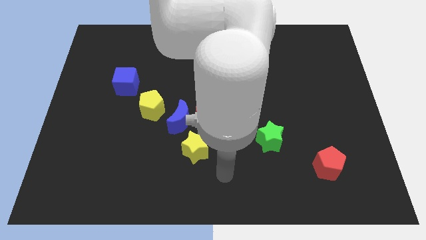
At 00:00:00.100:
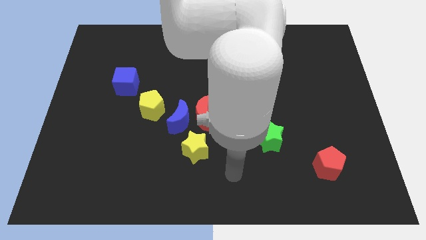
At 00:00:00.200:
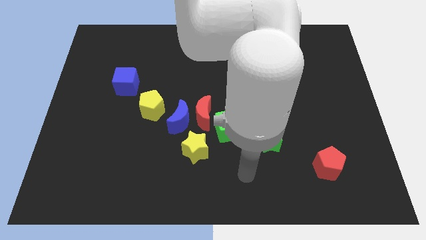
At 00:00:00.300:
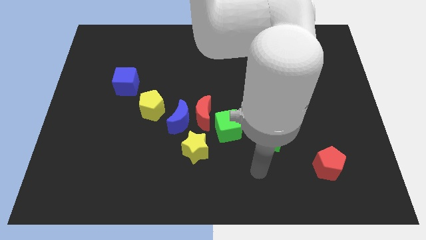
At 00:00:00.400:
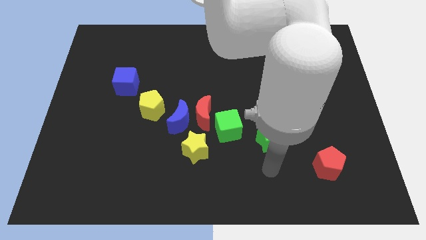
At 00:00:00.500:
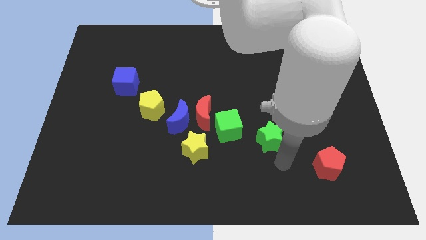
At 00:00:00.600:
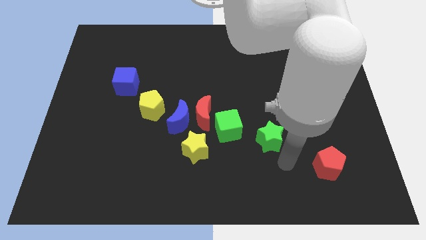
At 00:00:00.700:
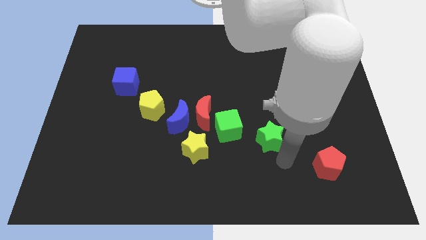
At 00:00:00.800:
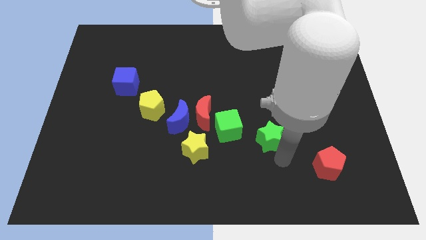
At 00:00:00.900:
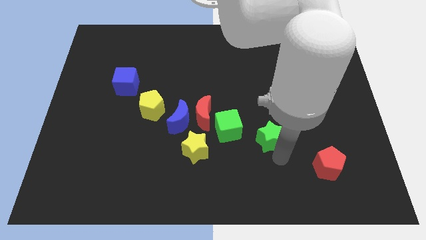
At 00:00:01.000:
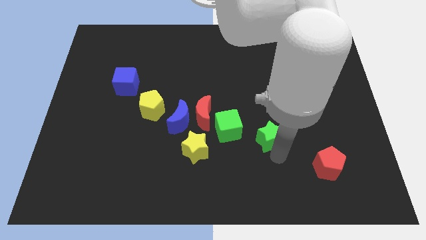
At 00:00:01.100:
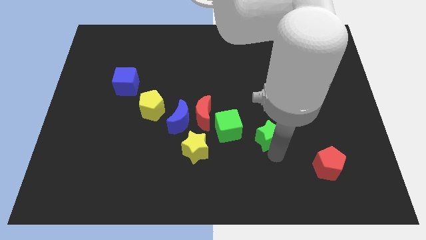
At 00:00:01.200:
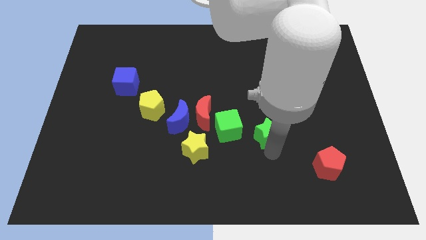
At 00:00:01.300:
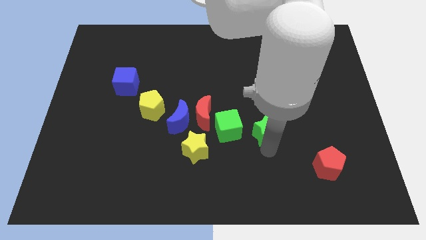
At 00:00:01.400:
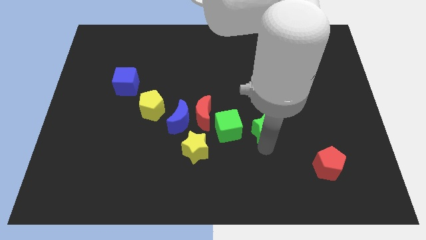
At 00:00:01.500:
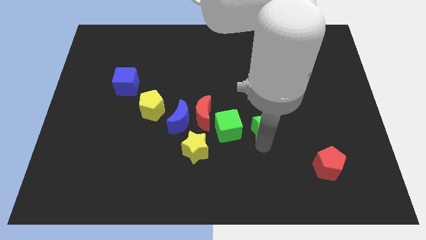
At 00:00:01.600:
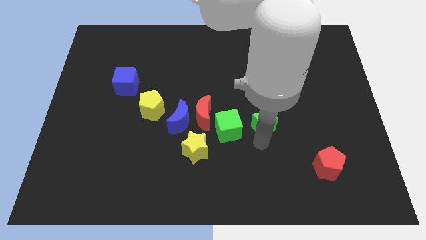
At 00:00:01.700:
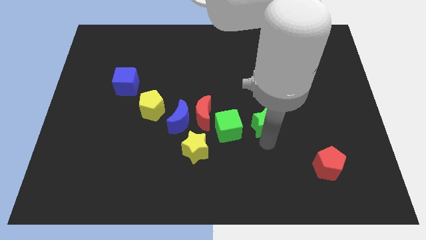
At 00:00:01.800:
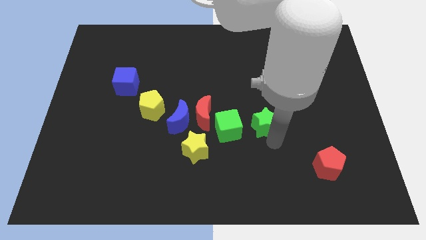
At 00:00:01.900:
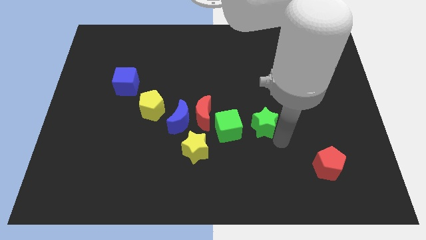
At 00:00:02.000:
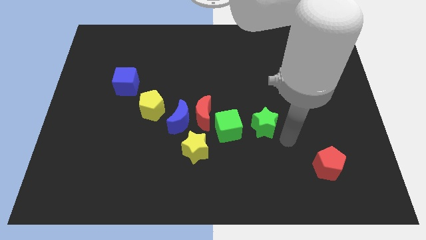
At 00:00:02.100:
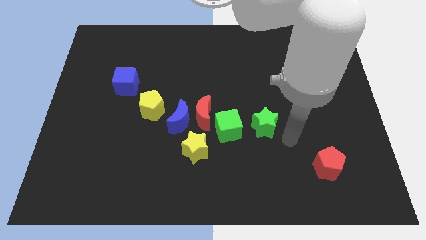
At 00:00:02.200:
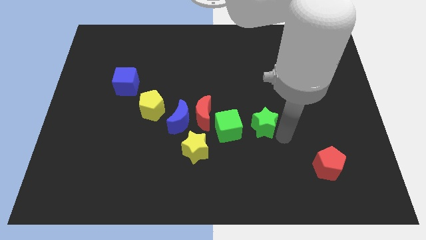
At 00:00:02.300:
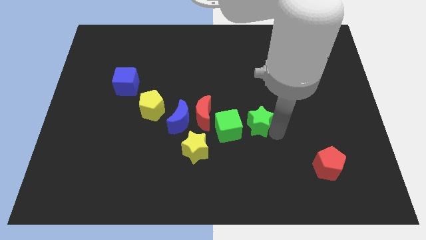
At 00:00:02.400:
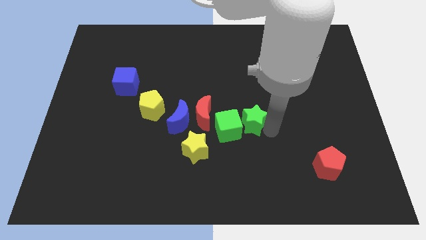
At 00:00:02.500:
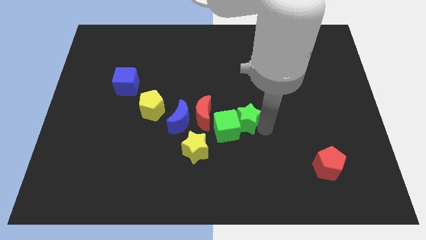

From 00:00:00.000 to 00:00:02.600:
slightly push the green star up and then left

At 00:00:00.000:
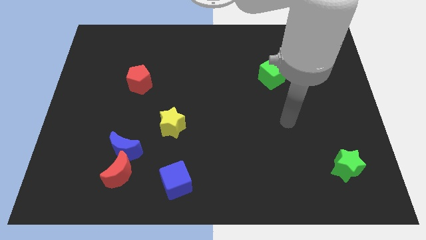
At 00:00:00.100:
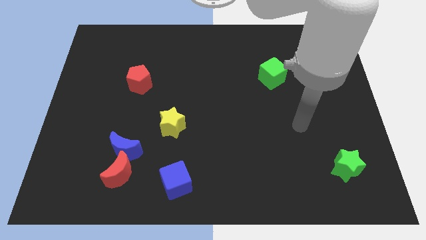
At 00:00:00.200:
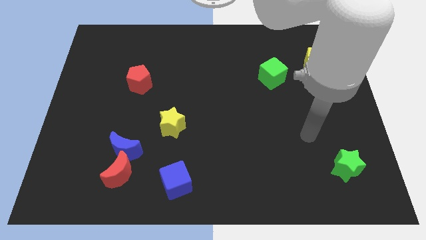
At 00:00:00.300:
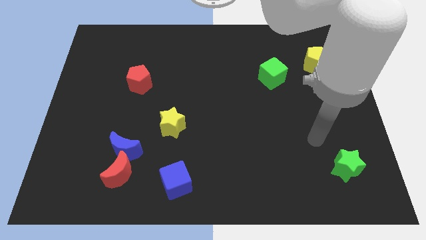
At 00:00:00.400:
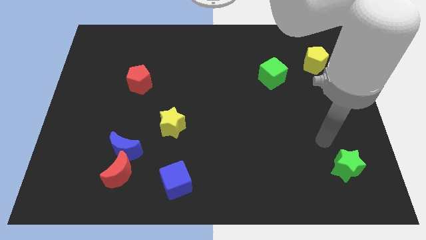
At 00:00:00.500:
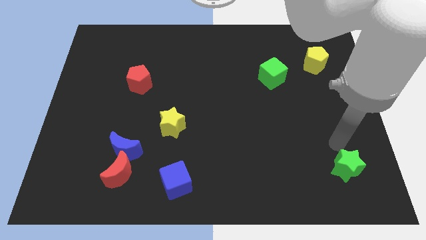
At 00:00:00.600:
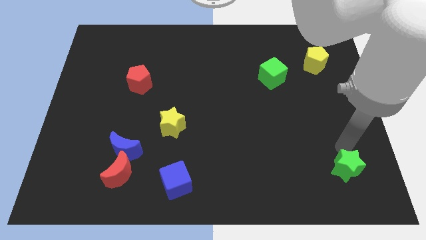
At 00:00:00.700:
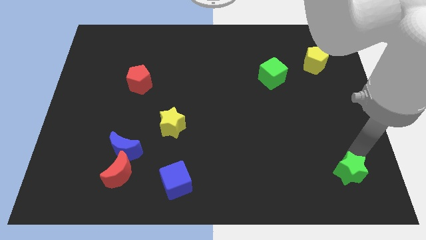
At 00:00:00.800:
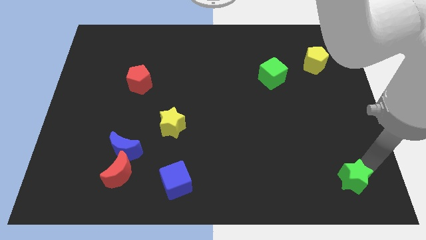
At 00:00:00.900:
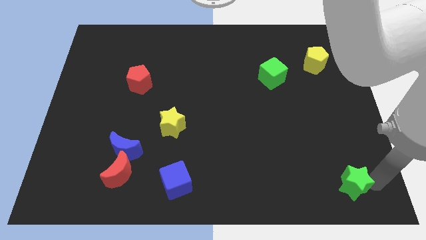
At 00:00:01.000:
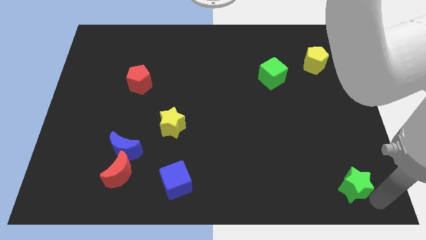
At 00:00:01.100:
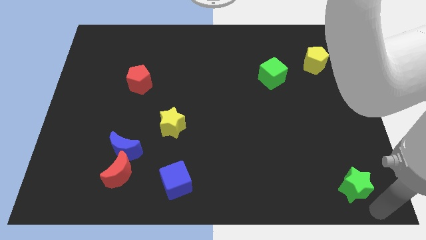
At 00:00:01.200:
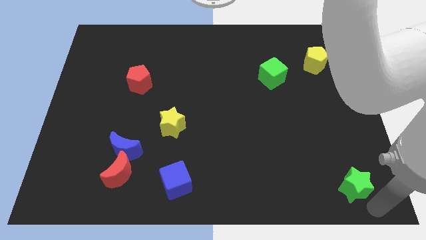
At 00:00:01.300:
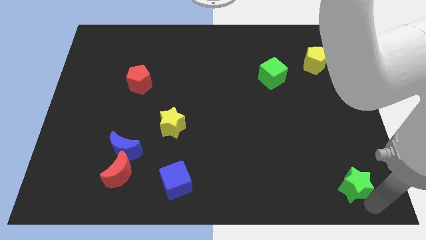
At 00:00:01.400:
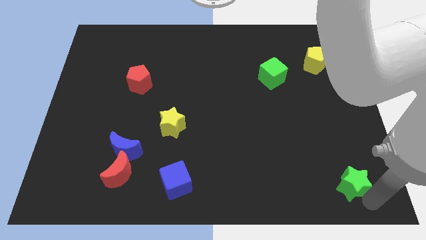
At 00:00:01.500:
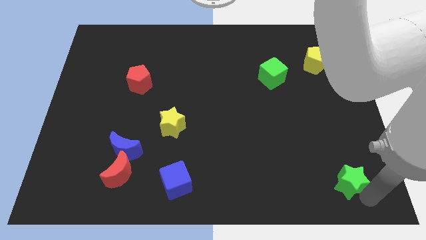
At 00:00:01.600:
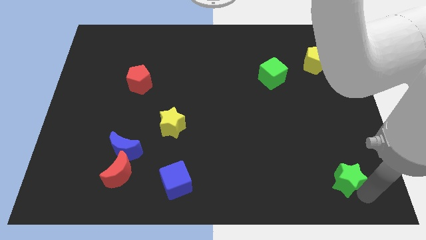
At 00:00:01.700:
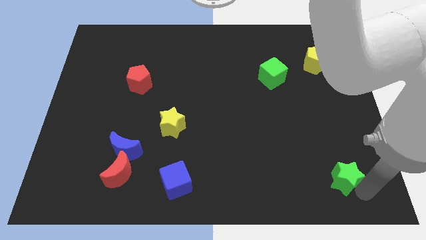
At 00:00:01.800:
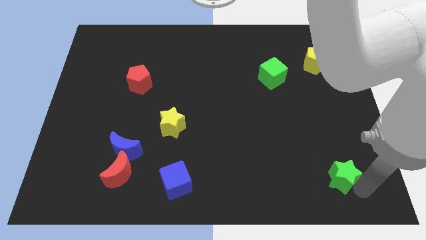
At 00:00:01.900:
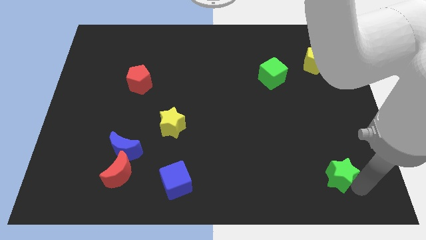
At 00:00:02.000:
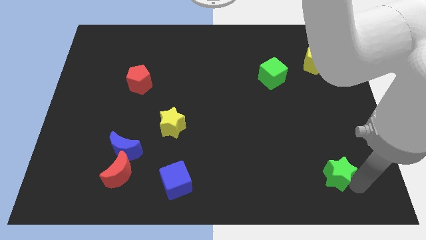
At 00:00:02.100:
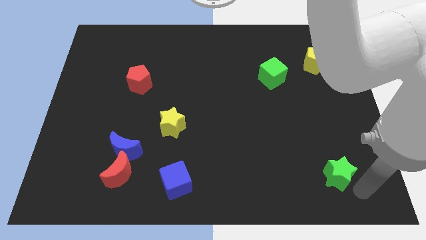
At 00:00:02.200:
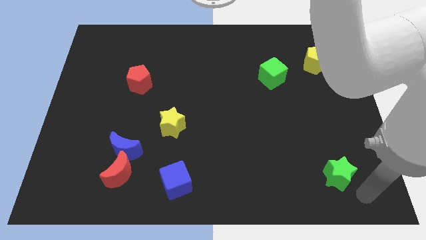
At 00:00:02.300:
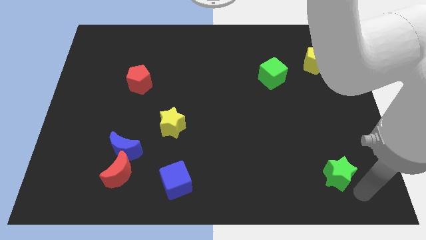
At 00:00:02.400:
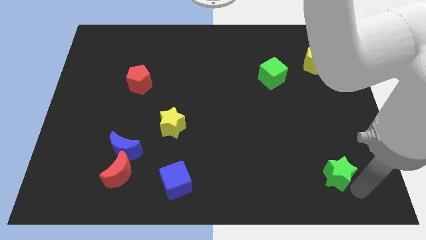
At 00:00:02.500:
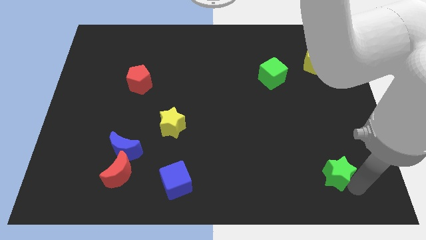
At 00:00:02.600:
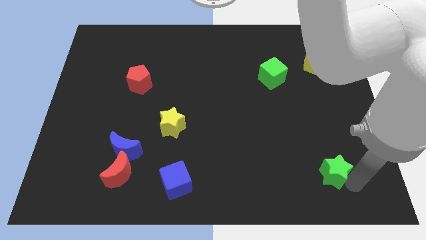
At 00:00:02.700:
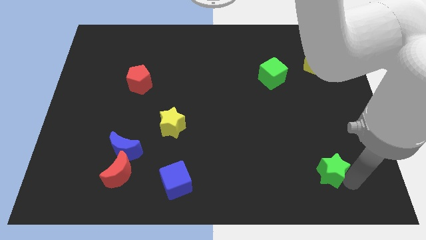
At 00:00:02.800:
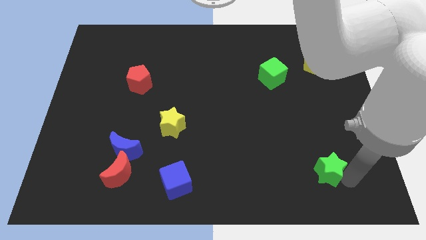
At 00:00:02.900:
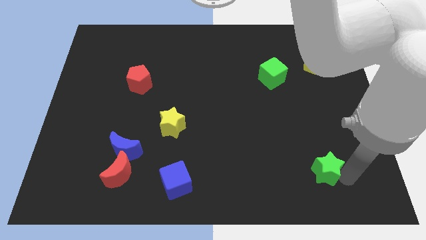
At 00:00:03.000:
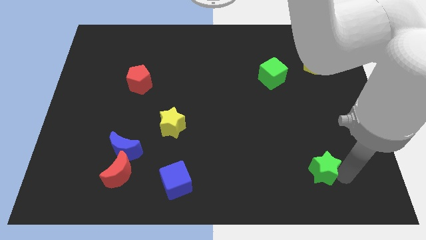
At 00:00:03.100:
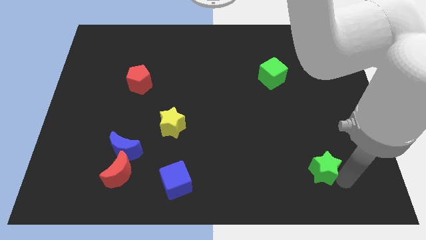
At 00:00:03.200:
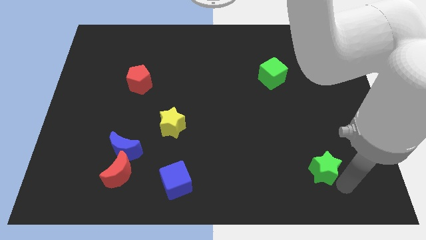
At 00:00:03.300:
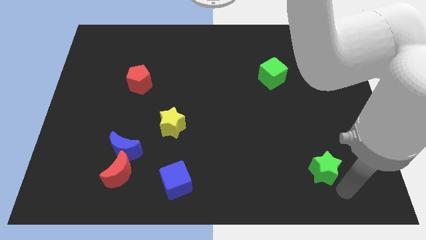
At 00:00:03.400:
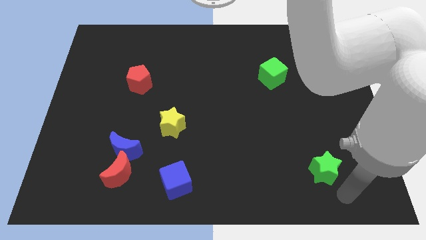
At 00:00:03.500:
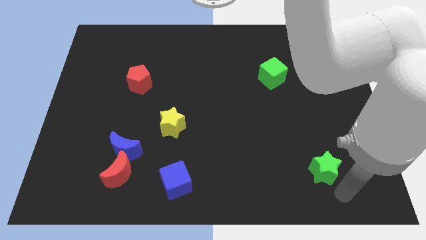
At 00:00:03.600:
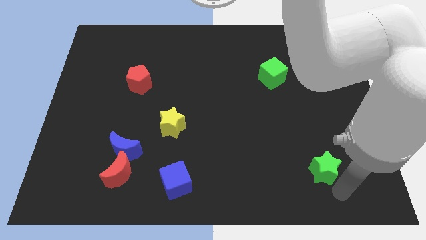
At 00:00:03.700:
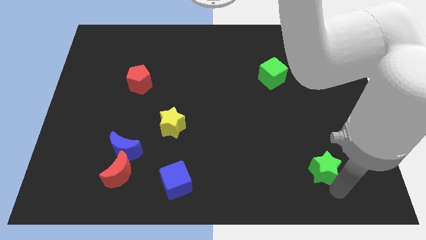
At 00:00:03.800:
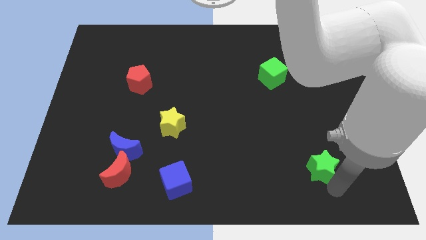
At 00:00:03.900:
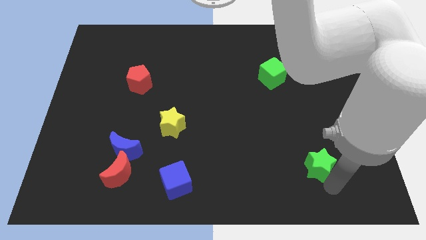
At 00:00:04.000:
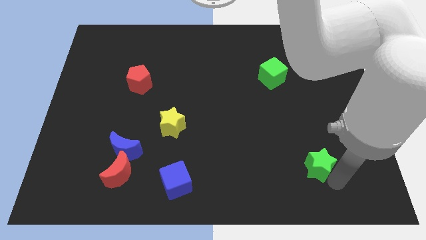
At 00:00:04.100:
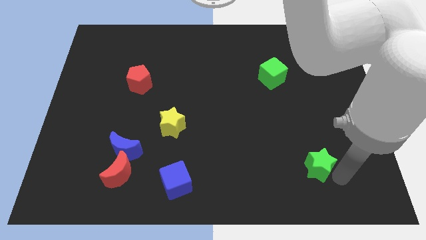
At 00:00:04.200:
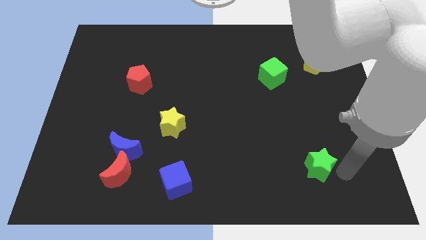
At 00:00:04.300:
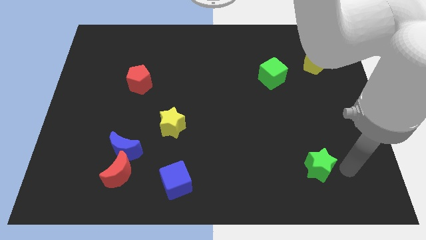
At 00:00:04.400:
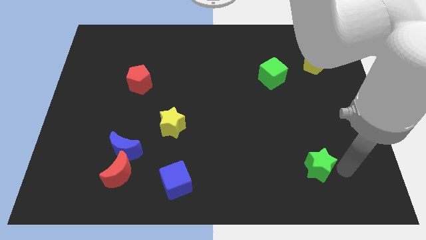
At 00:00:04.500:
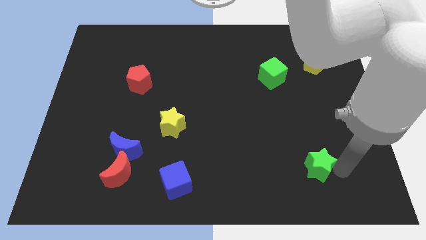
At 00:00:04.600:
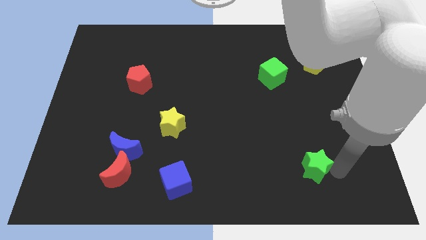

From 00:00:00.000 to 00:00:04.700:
push the green star to the left a bit

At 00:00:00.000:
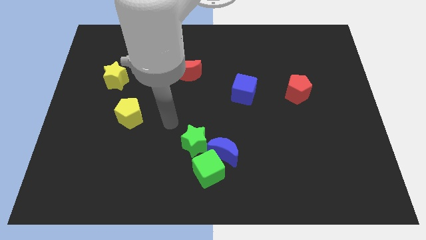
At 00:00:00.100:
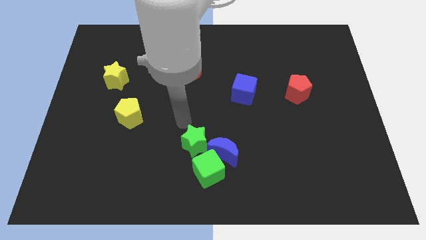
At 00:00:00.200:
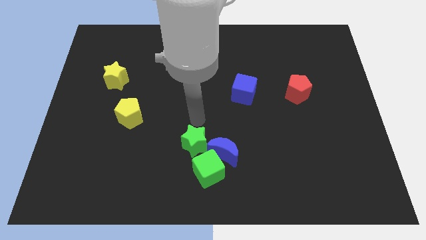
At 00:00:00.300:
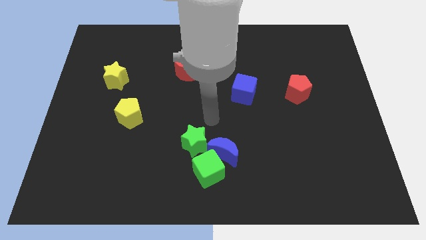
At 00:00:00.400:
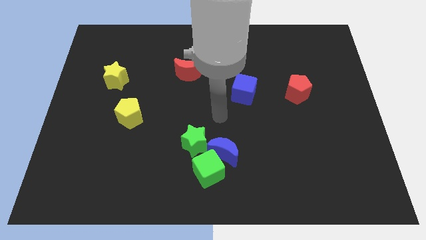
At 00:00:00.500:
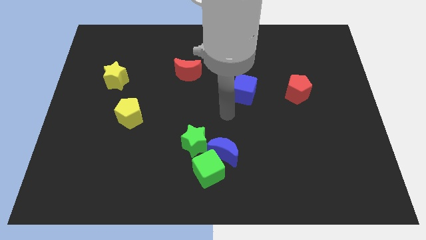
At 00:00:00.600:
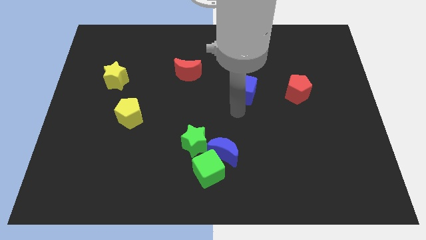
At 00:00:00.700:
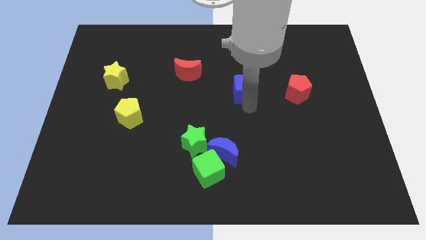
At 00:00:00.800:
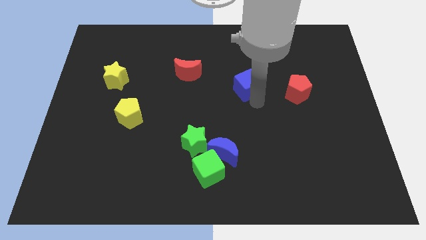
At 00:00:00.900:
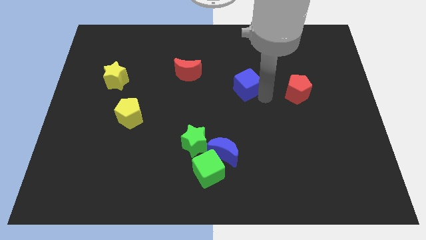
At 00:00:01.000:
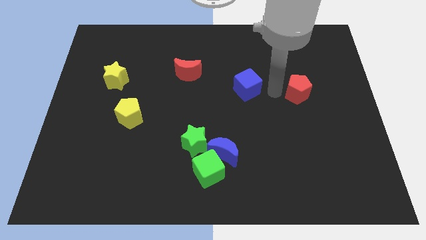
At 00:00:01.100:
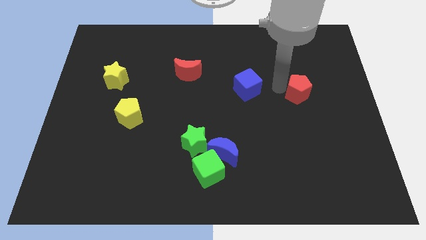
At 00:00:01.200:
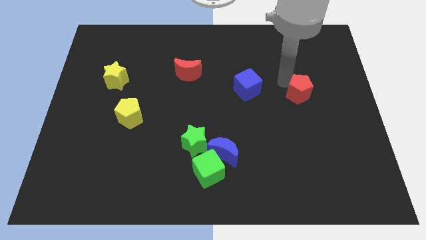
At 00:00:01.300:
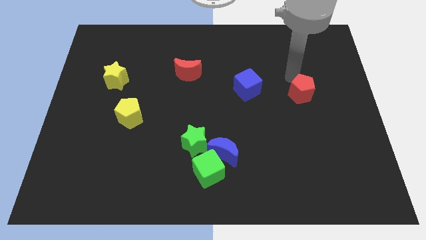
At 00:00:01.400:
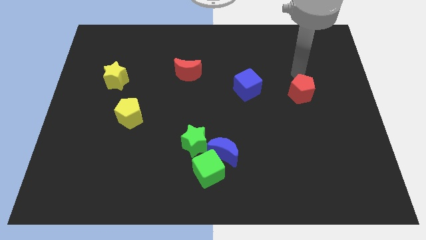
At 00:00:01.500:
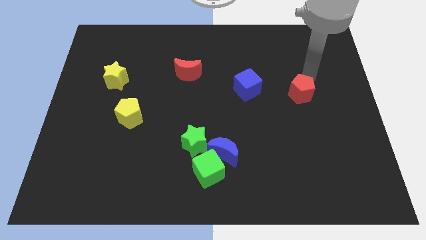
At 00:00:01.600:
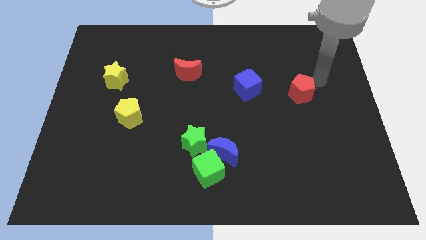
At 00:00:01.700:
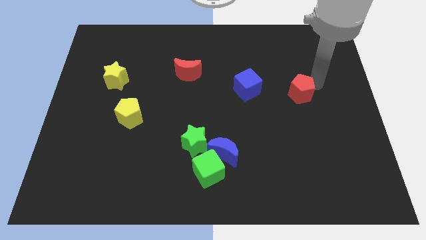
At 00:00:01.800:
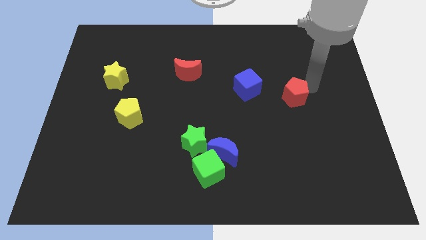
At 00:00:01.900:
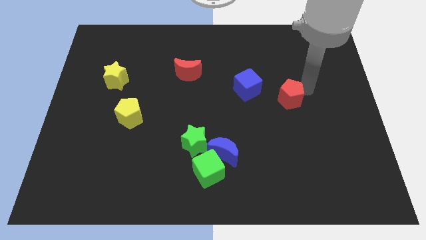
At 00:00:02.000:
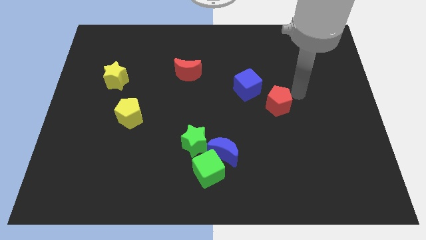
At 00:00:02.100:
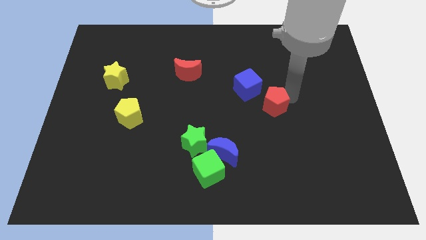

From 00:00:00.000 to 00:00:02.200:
push the red pentagon downwards and to the left diagonally a little
